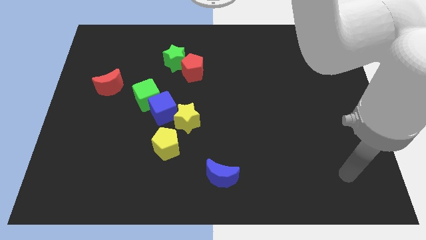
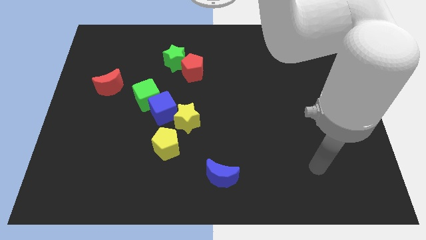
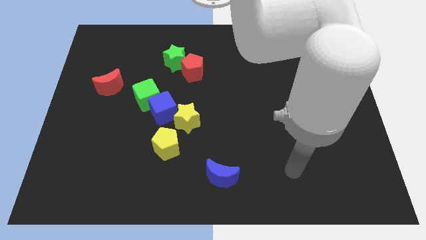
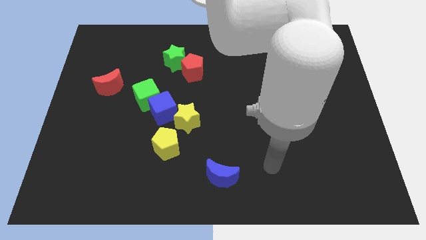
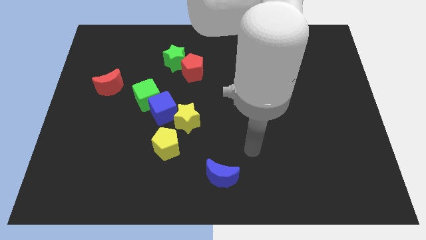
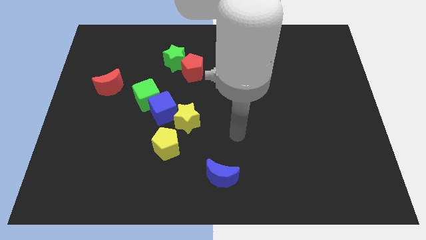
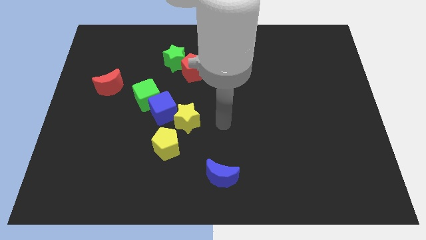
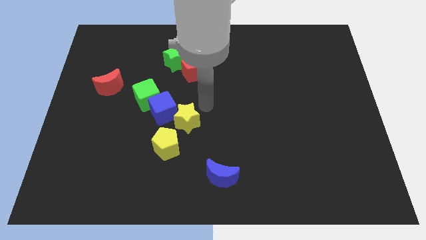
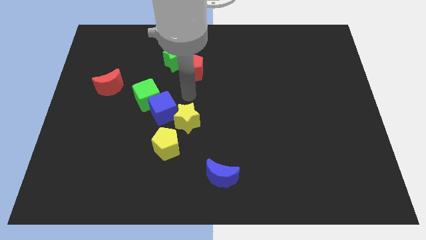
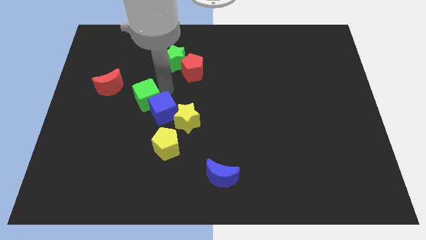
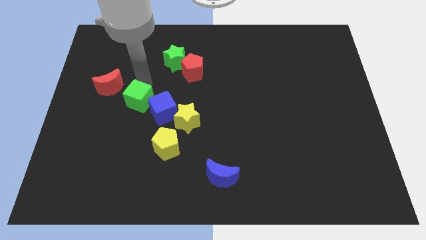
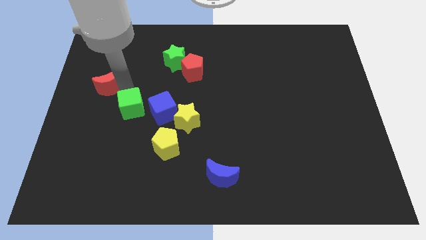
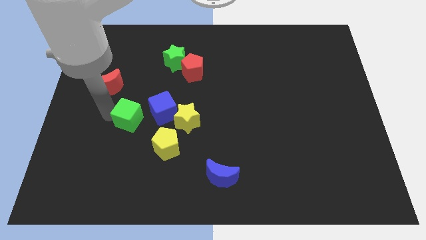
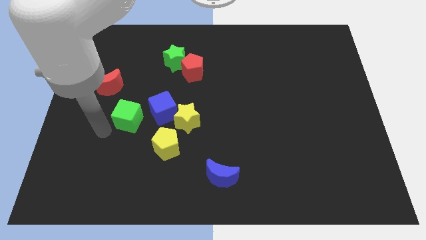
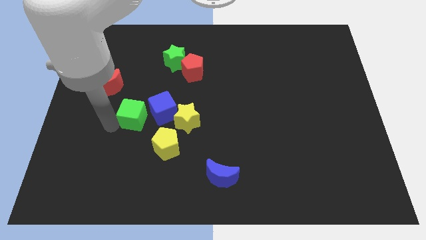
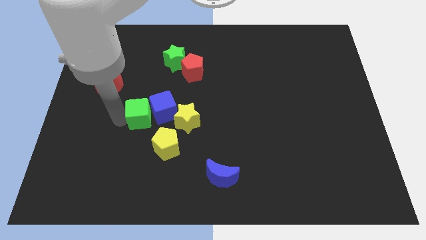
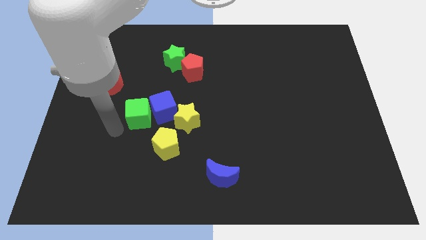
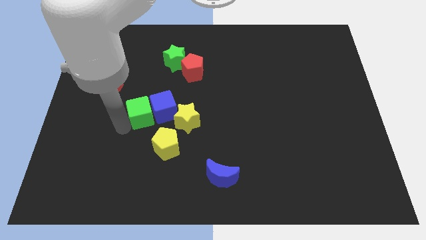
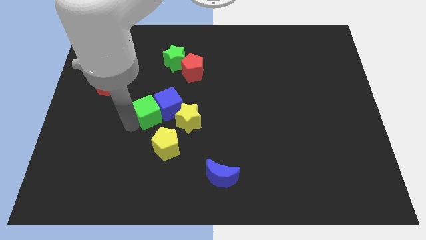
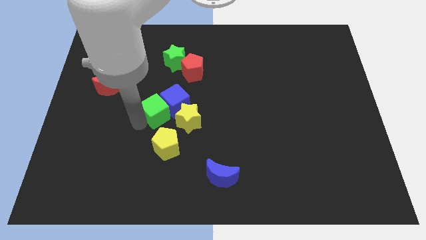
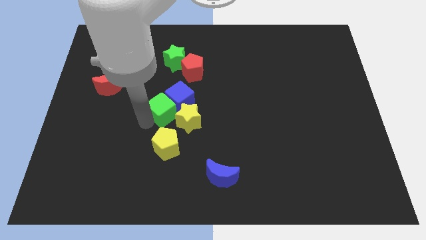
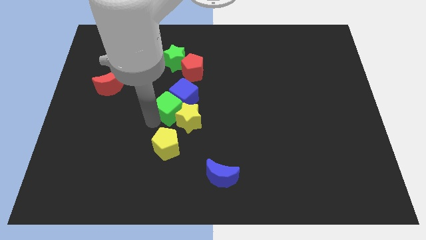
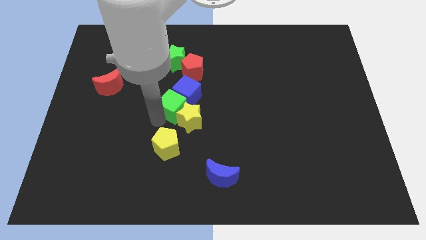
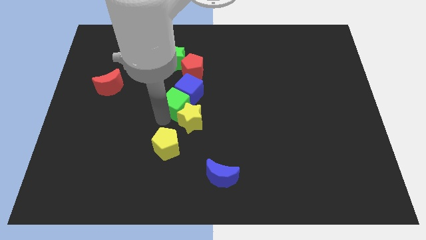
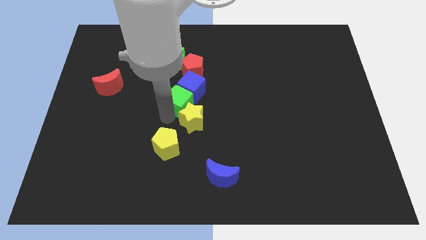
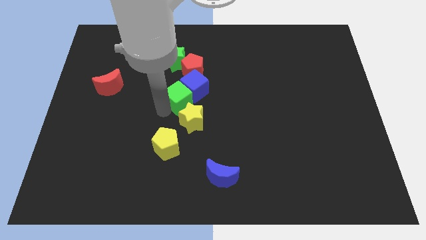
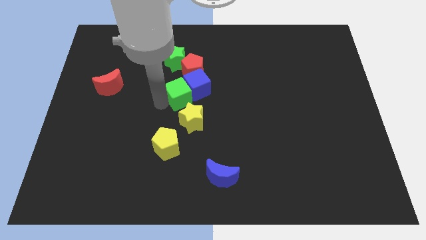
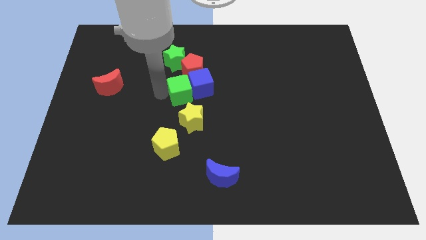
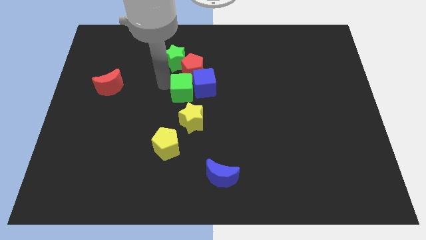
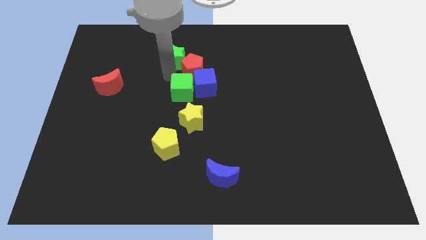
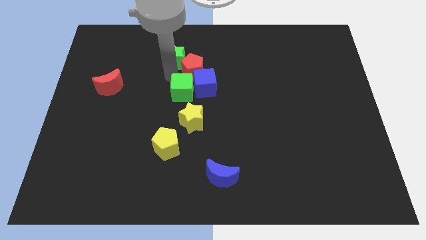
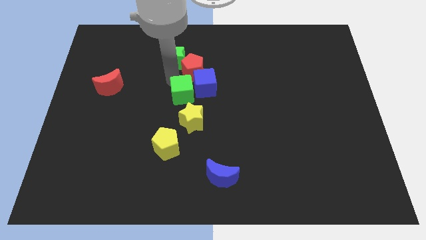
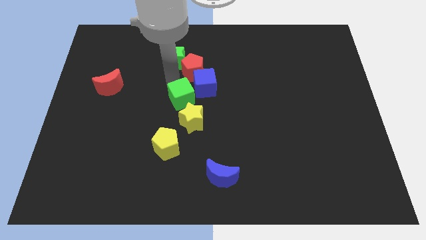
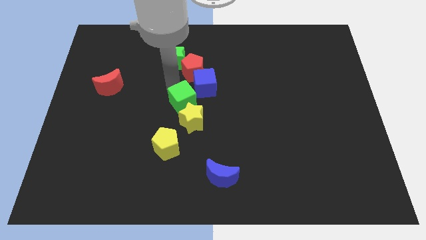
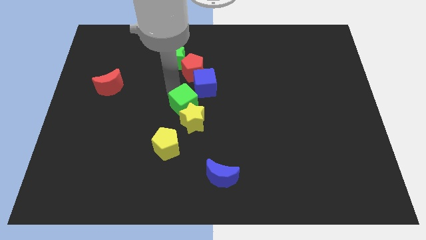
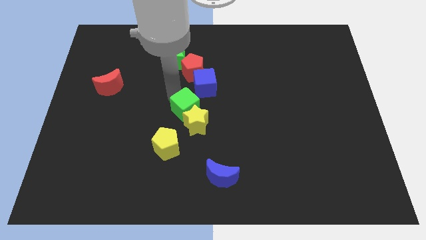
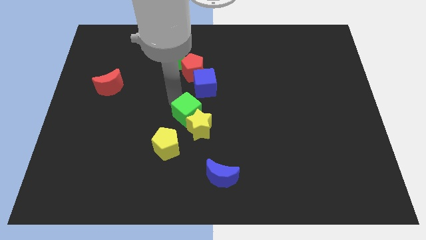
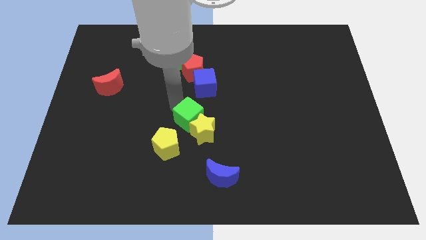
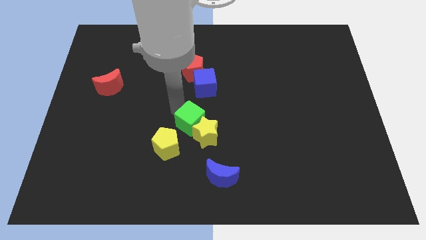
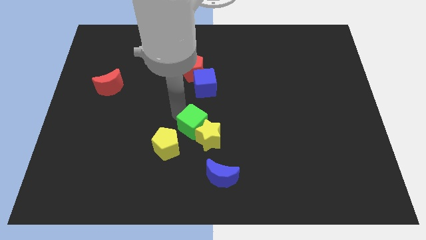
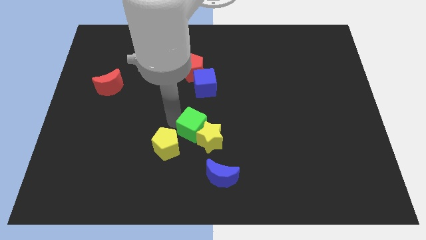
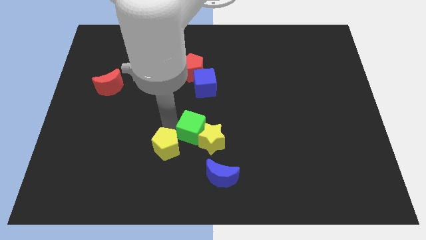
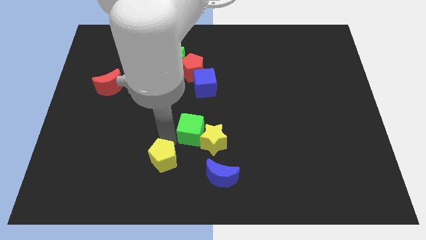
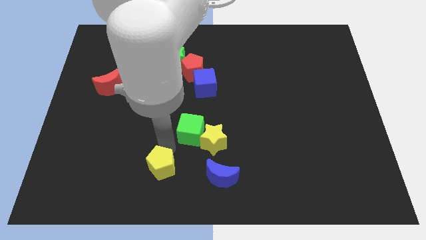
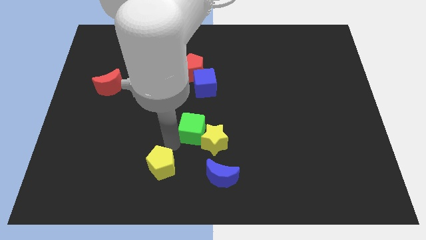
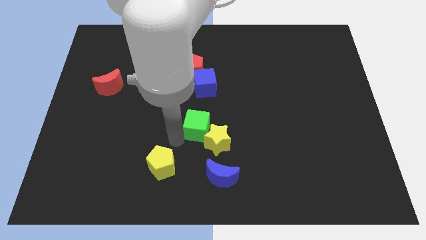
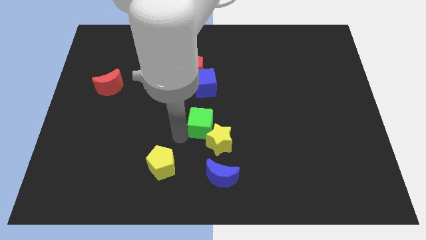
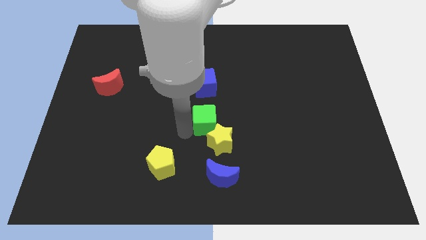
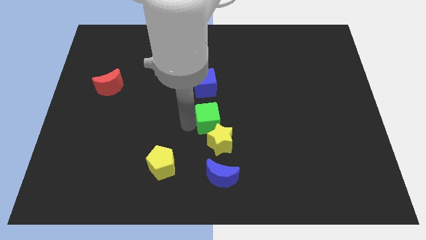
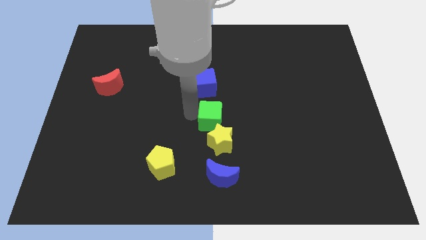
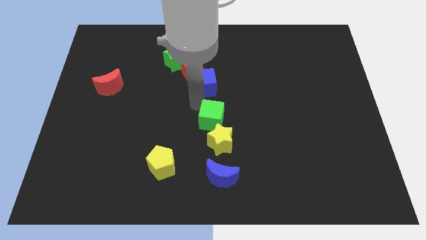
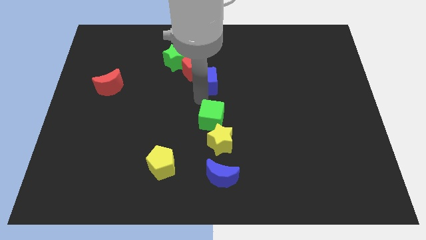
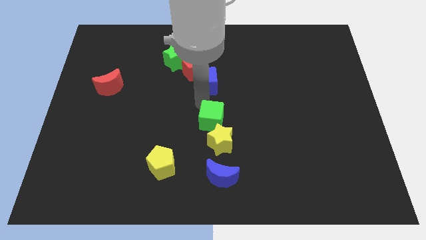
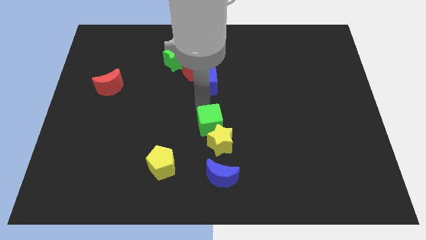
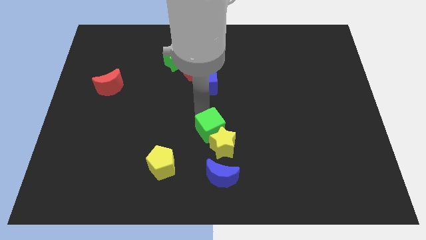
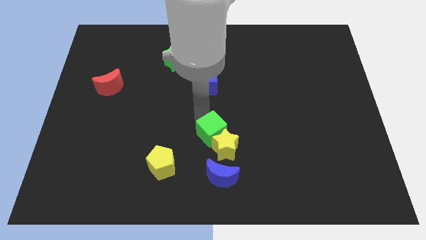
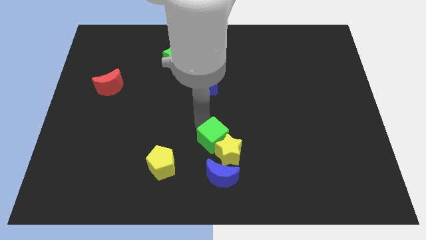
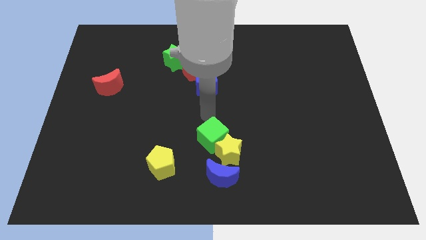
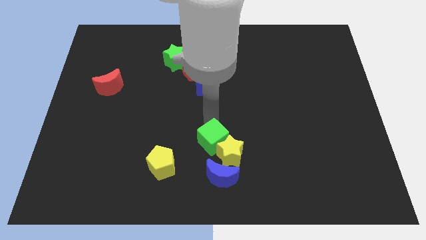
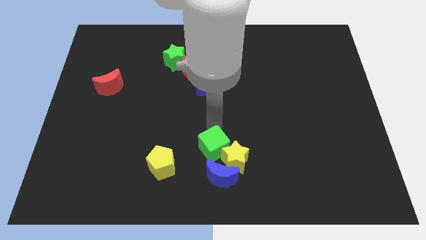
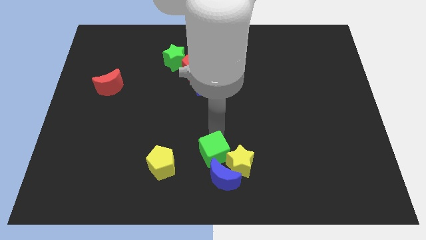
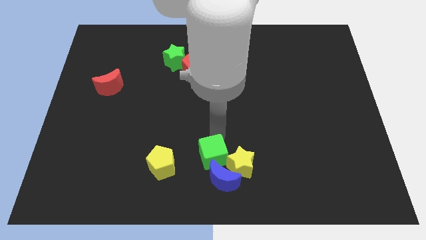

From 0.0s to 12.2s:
put the green cube close to the blue moon
